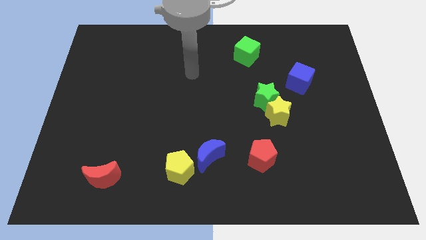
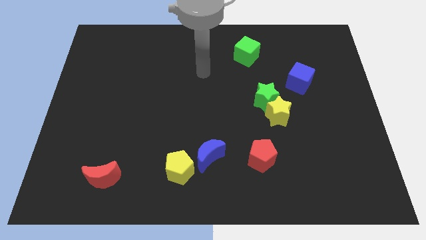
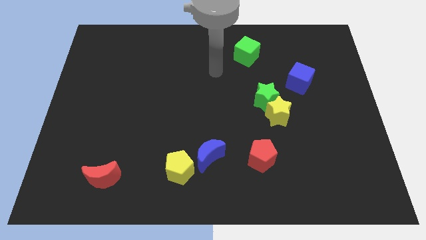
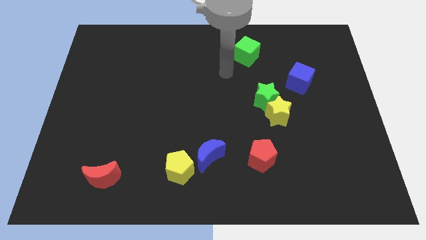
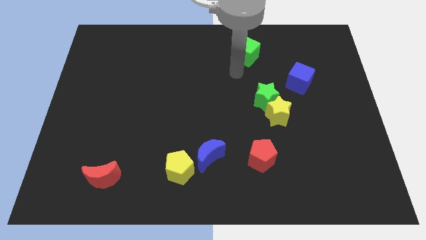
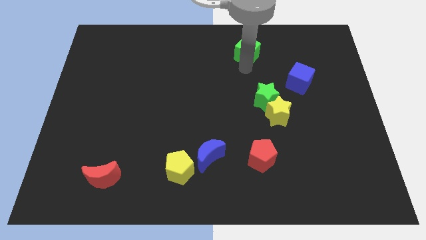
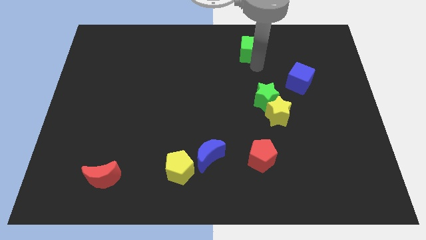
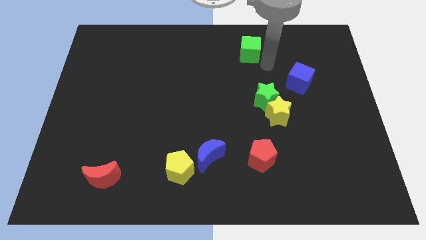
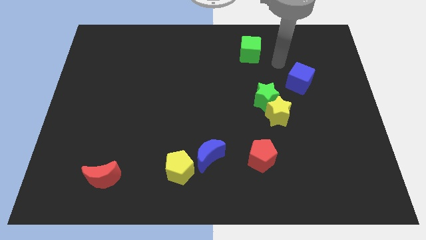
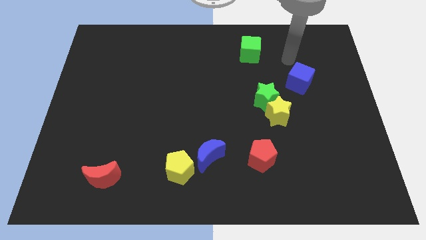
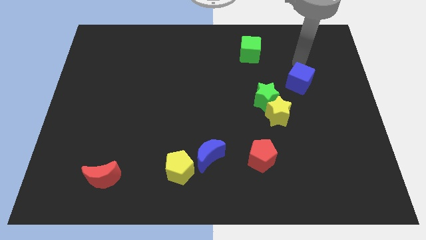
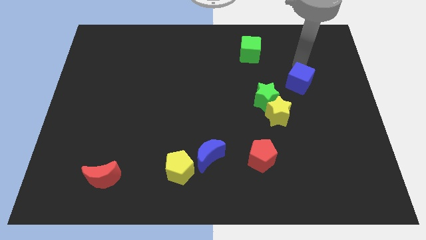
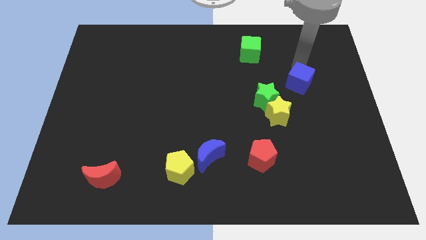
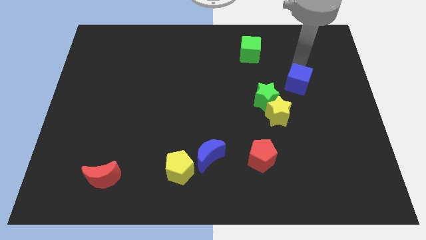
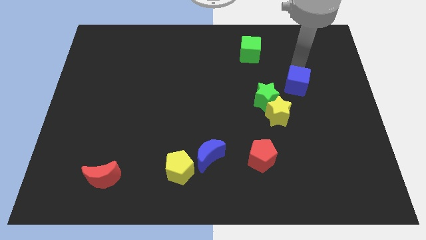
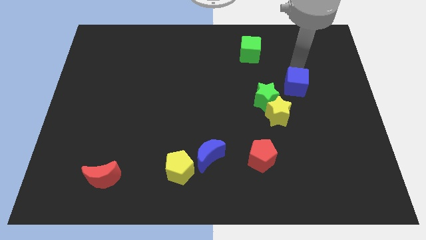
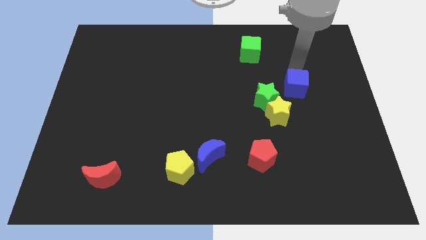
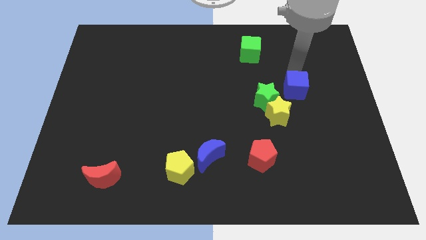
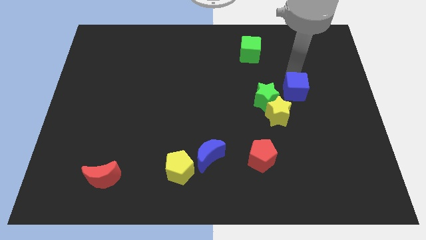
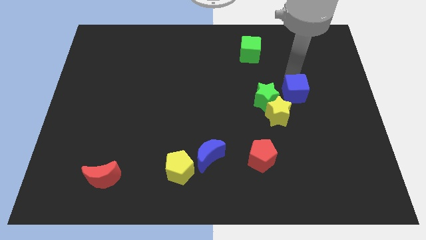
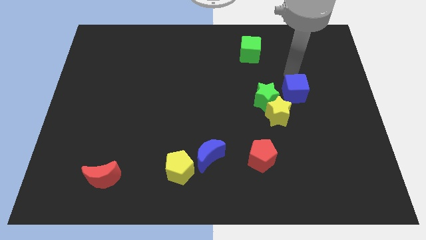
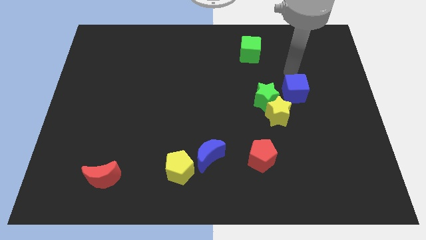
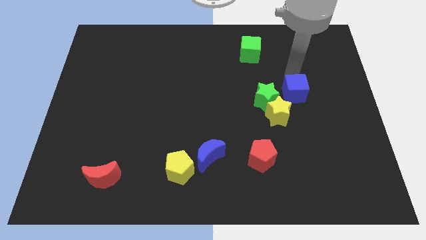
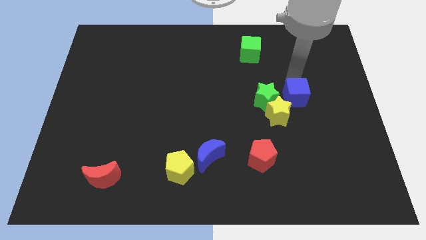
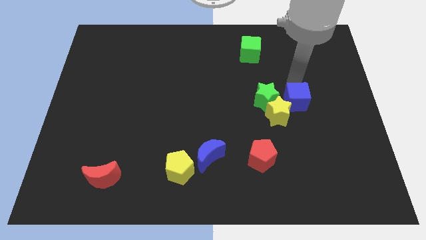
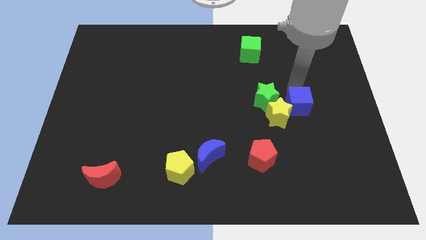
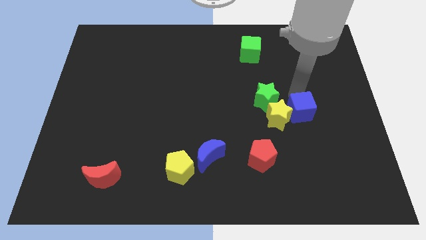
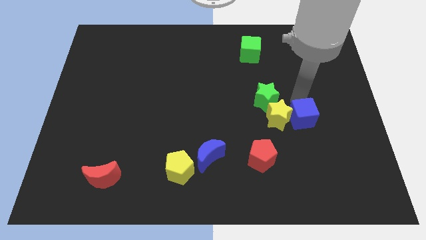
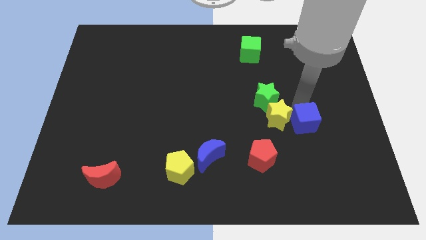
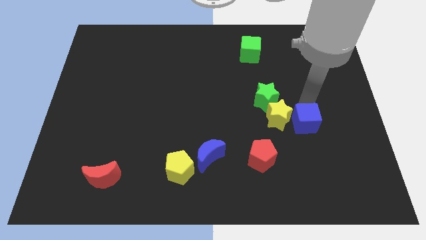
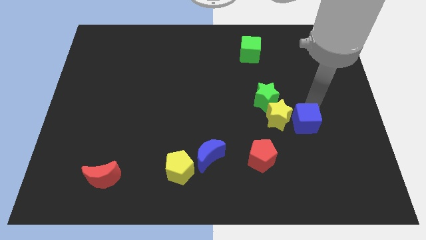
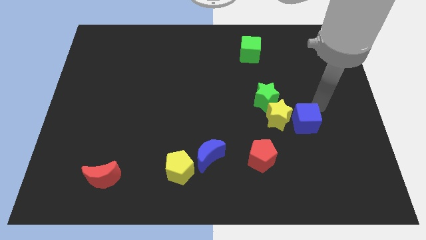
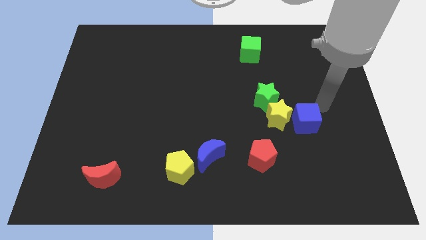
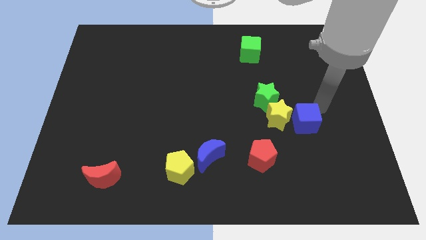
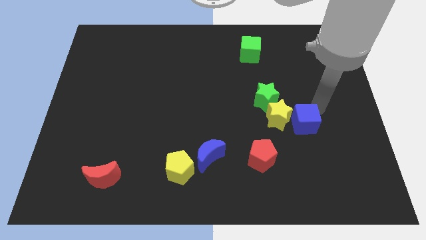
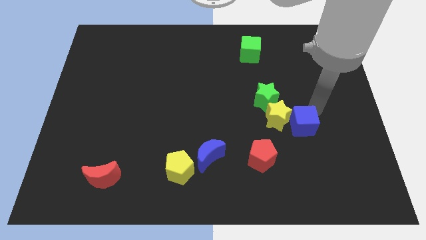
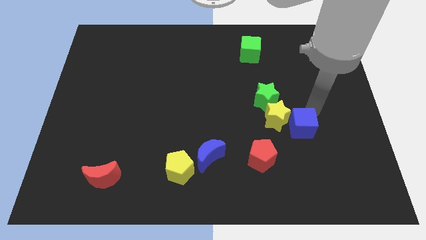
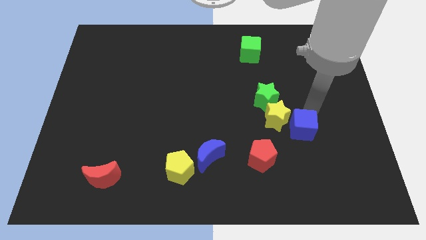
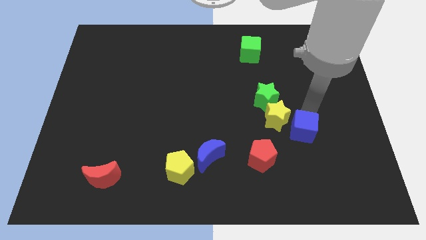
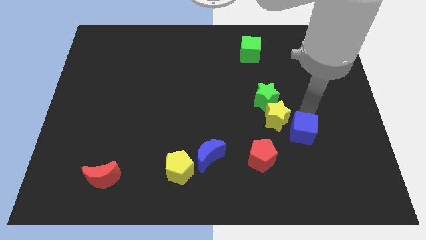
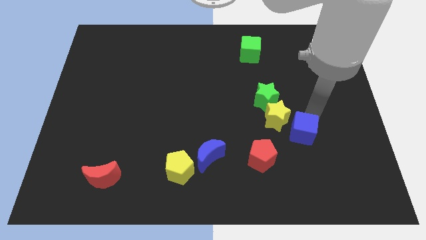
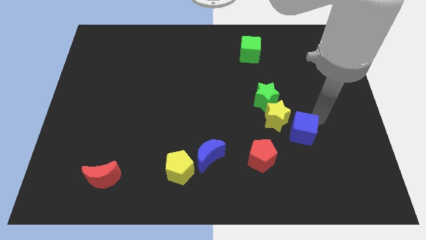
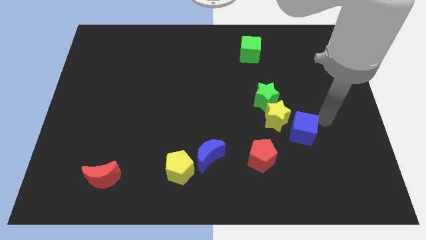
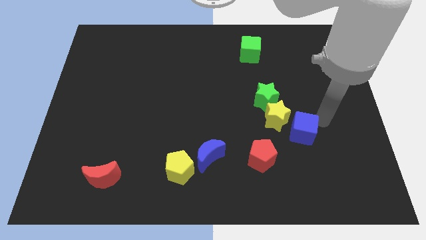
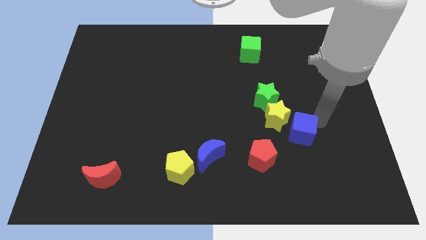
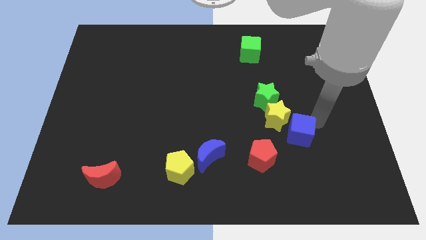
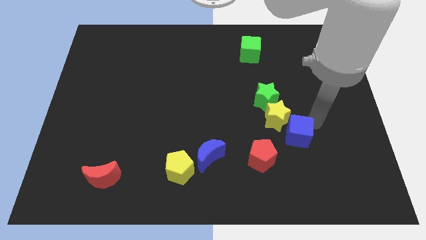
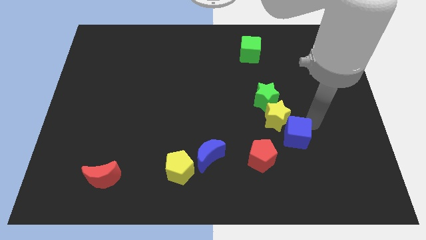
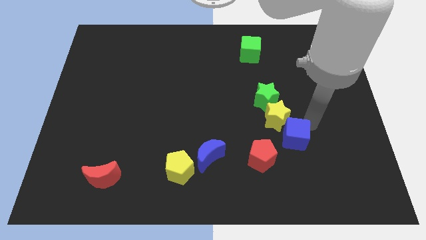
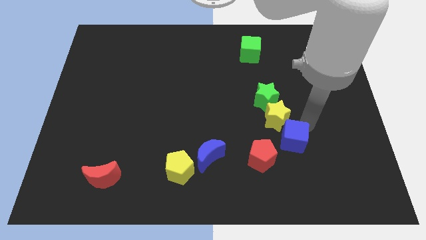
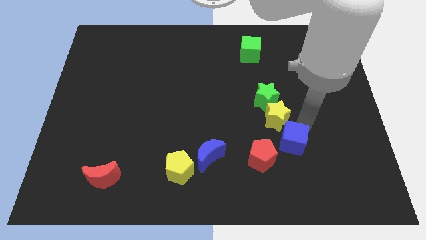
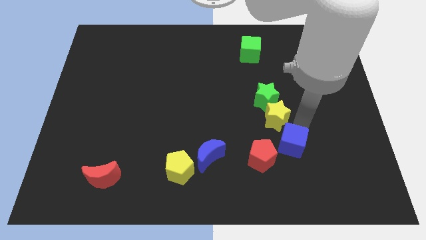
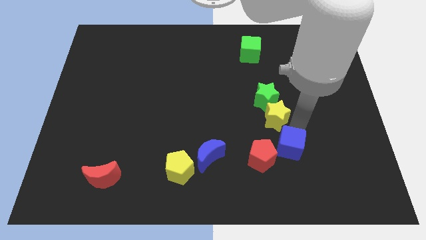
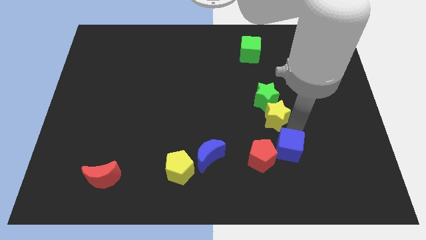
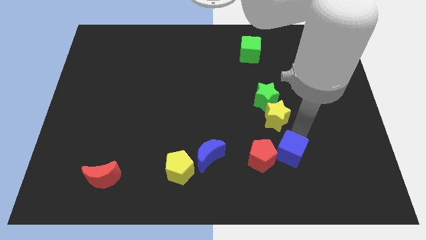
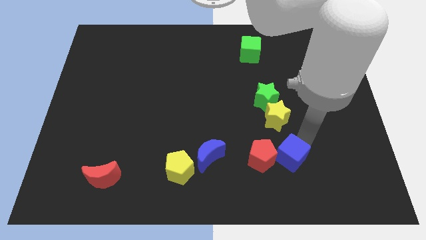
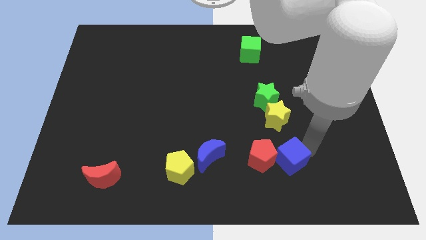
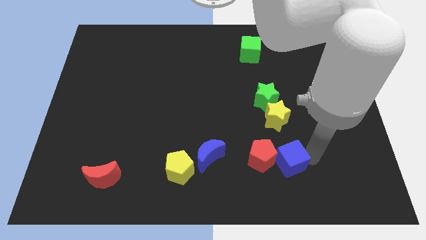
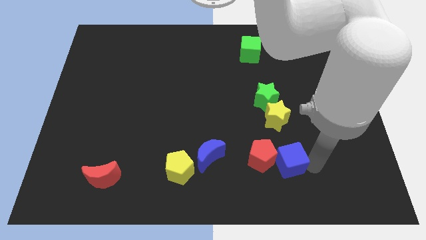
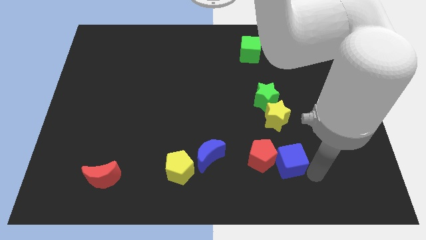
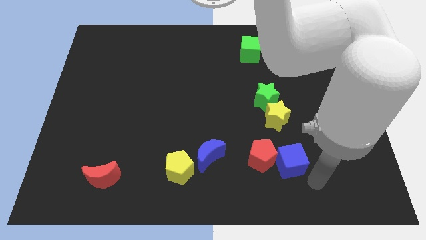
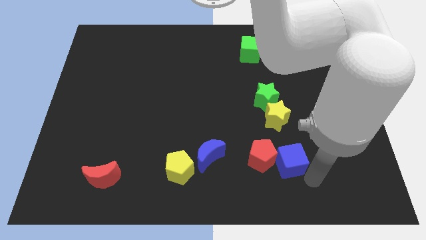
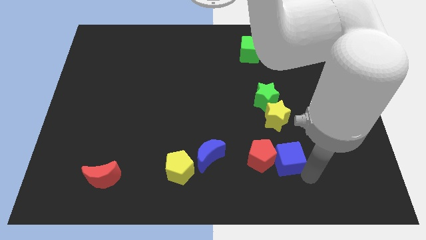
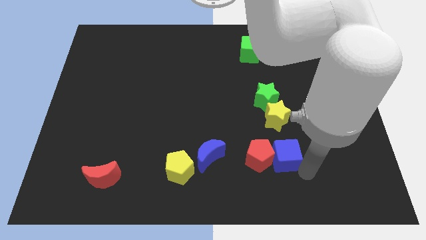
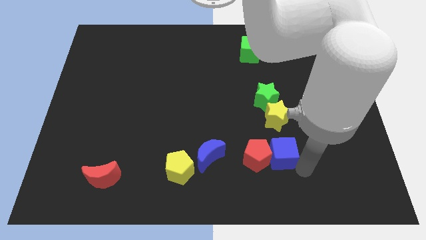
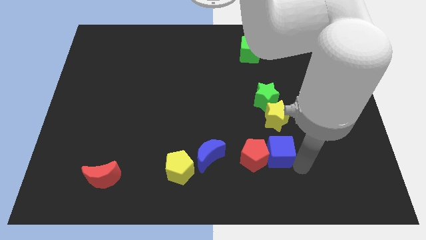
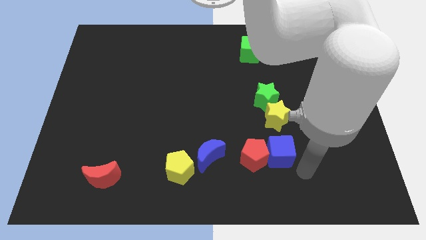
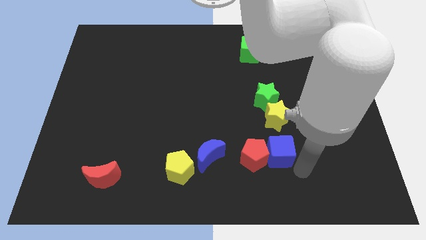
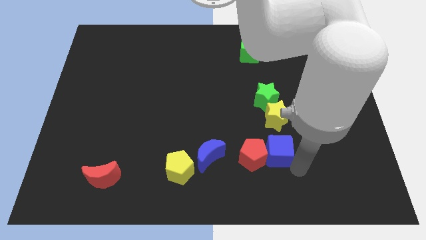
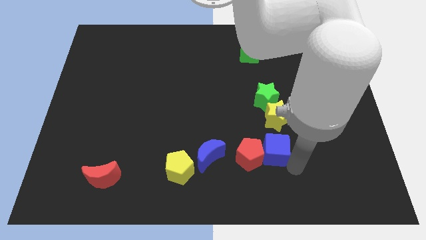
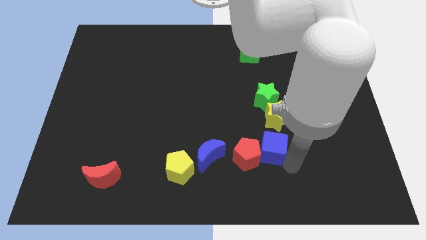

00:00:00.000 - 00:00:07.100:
put the blue cube diagonally down and to the left of the yellow star

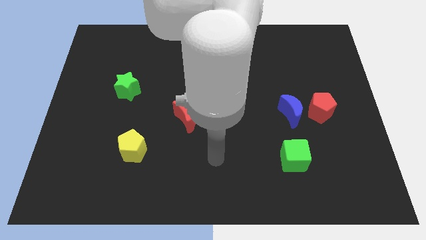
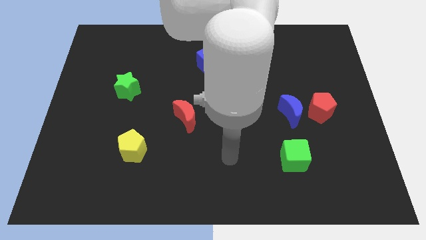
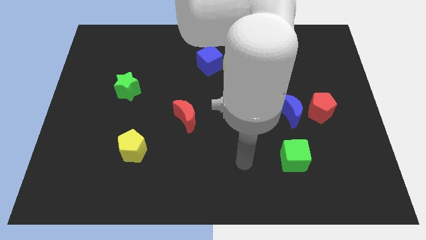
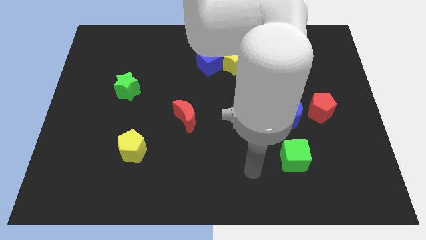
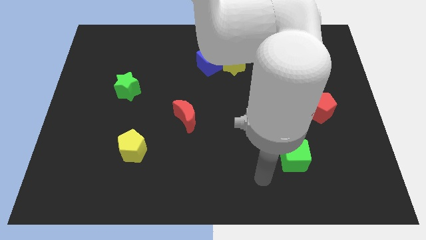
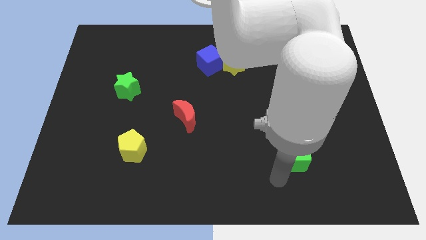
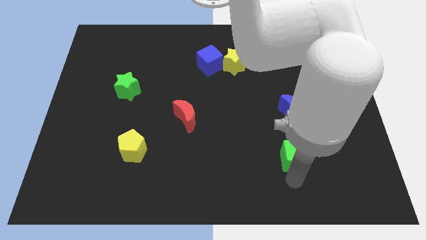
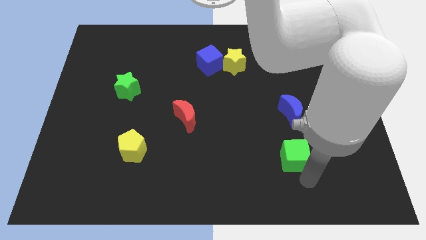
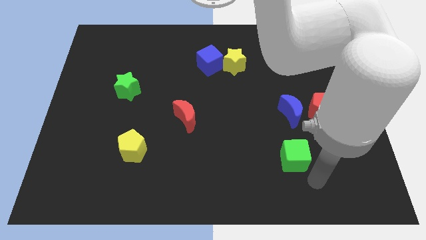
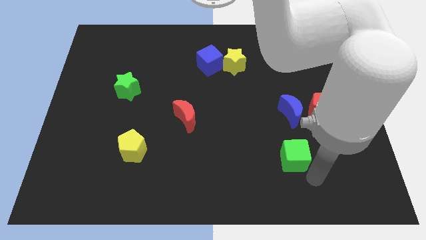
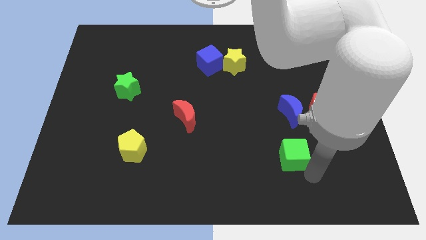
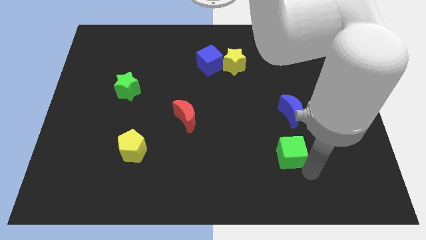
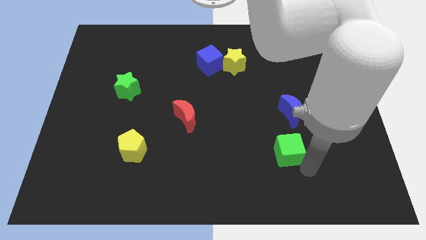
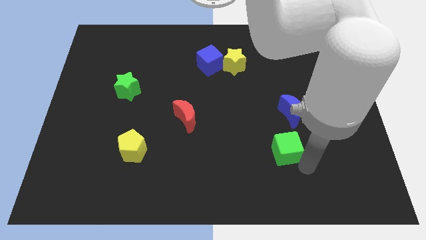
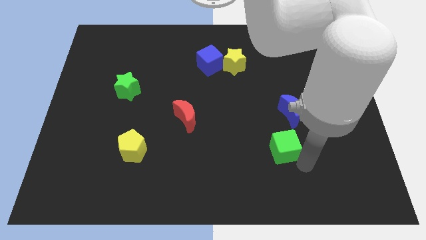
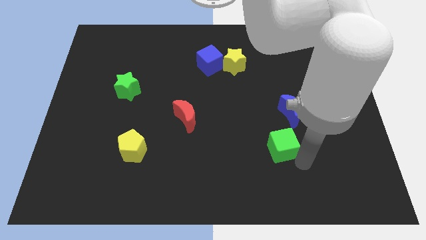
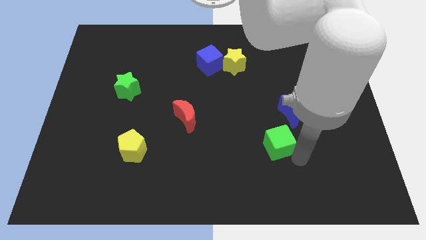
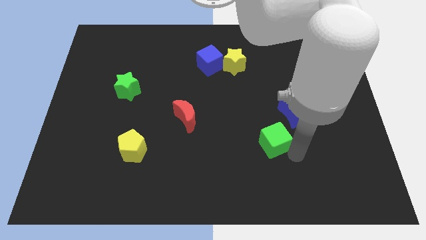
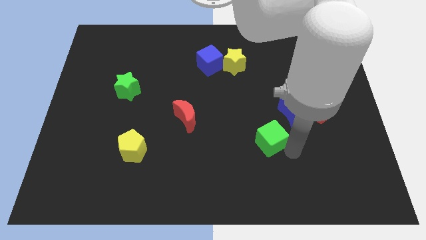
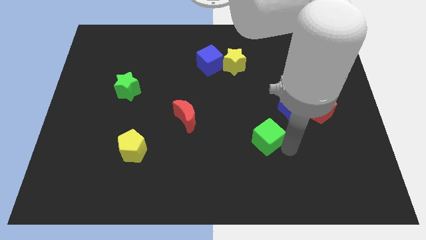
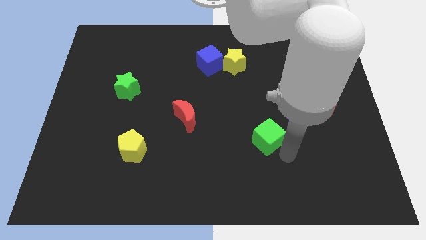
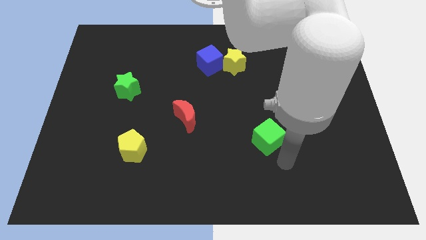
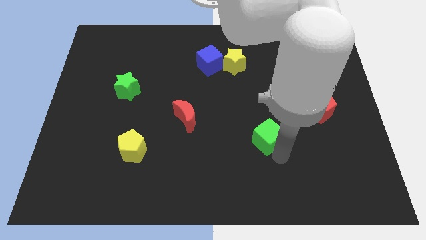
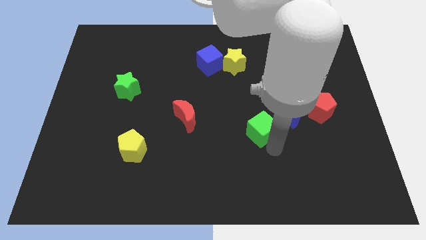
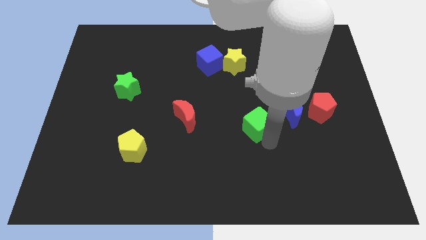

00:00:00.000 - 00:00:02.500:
put the green cube just left of the blue moon
